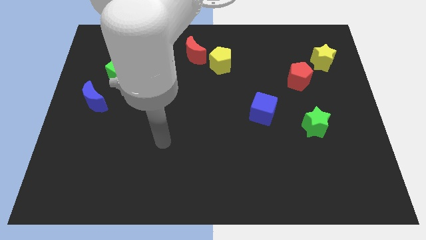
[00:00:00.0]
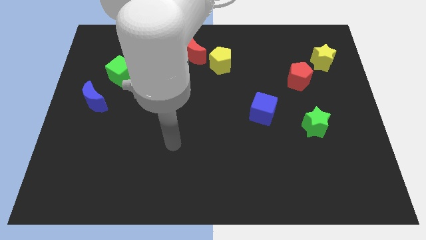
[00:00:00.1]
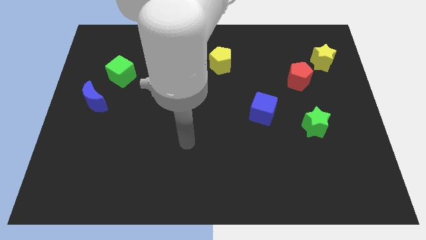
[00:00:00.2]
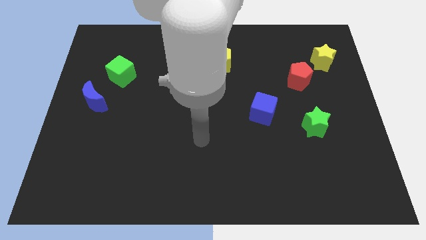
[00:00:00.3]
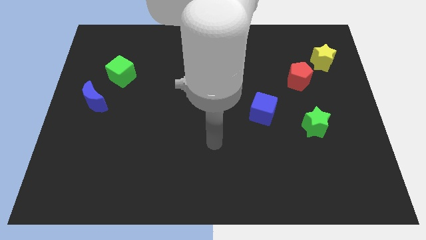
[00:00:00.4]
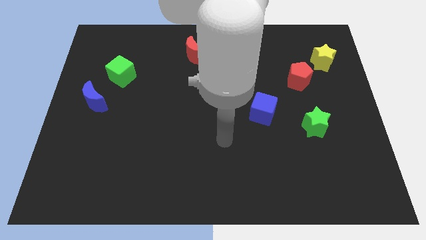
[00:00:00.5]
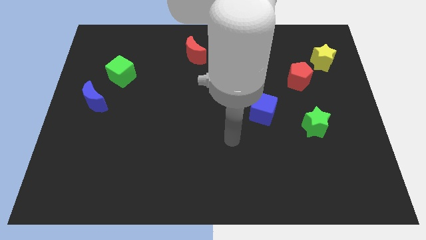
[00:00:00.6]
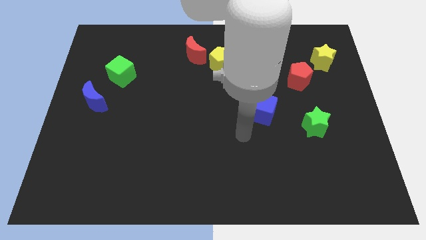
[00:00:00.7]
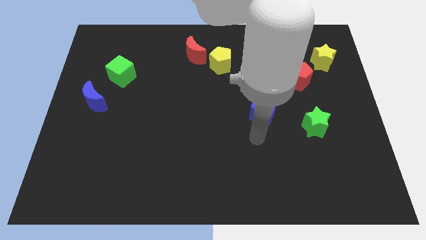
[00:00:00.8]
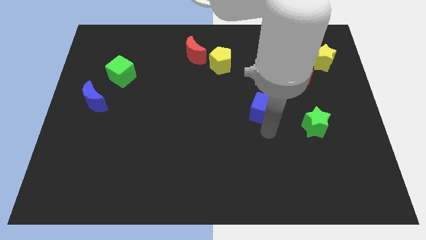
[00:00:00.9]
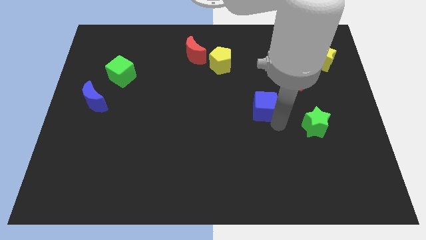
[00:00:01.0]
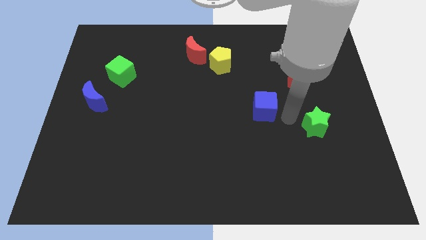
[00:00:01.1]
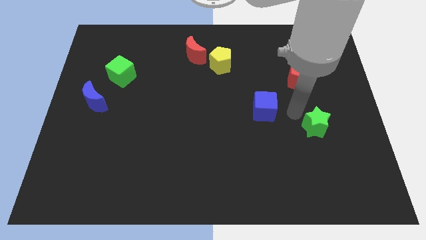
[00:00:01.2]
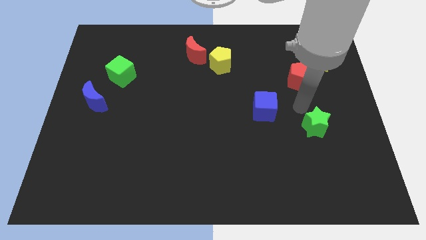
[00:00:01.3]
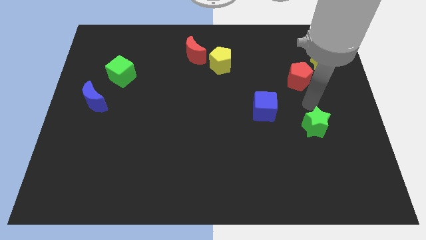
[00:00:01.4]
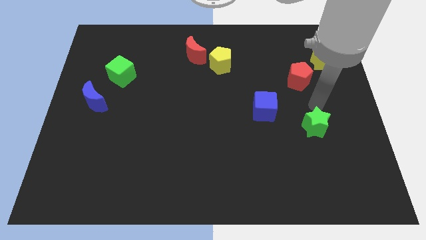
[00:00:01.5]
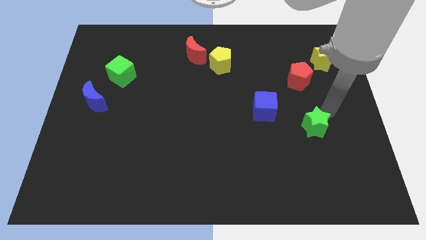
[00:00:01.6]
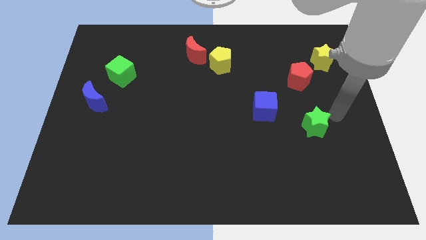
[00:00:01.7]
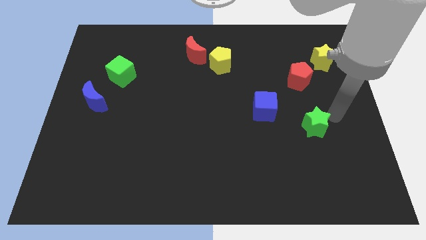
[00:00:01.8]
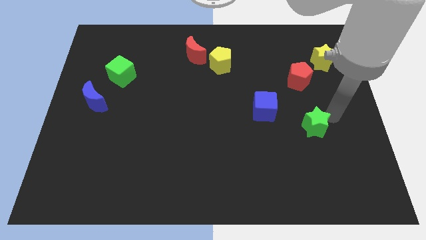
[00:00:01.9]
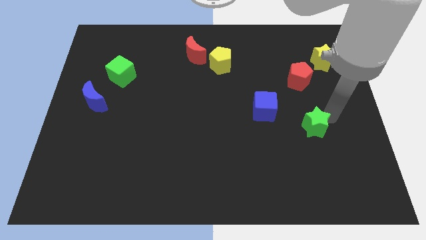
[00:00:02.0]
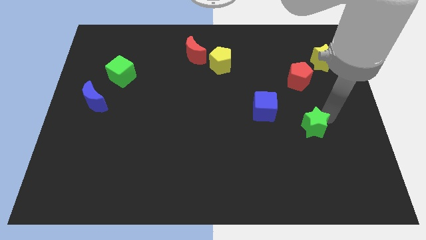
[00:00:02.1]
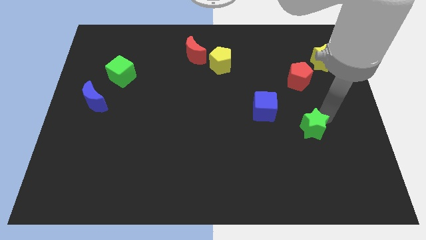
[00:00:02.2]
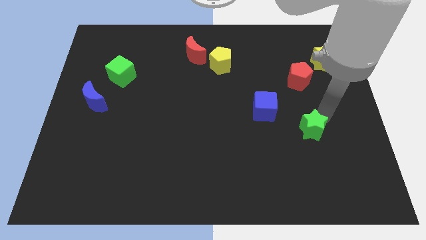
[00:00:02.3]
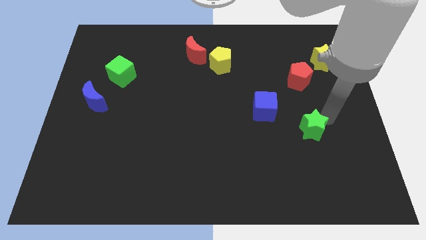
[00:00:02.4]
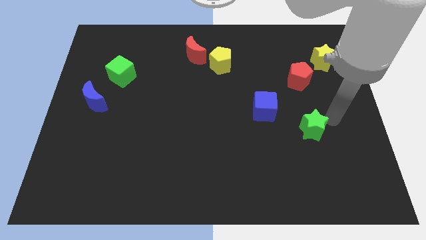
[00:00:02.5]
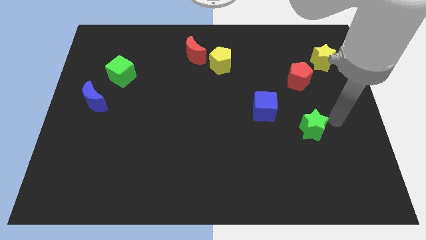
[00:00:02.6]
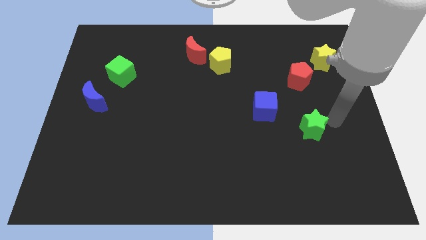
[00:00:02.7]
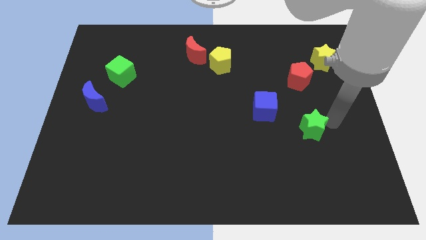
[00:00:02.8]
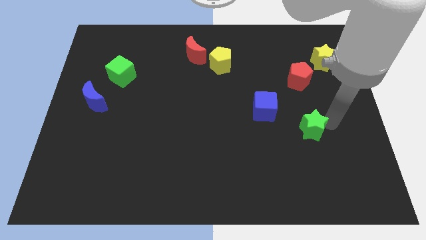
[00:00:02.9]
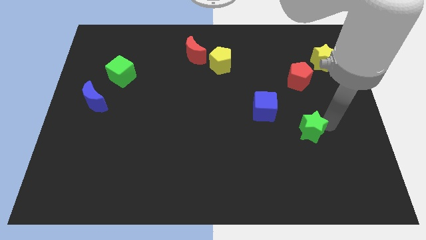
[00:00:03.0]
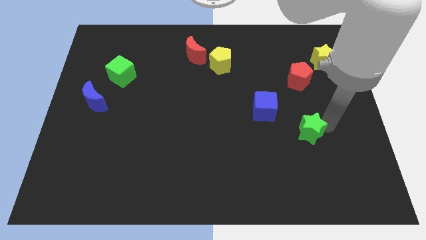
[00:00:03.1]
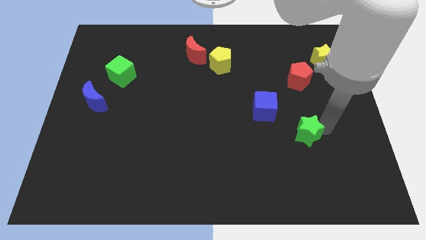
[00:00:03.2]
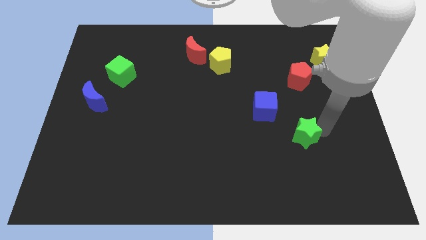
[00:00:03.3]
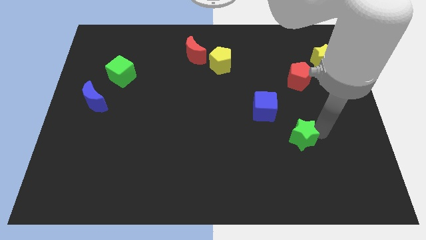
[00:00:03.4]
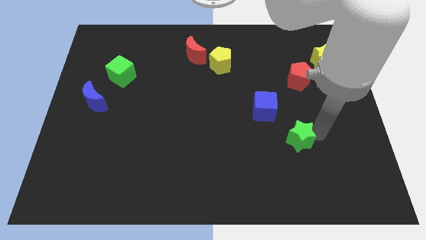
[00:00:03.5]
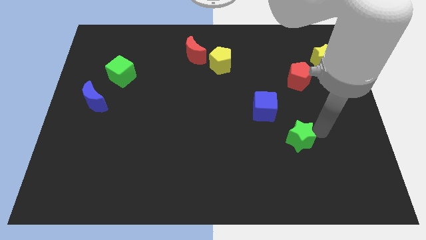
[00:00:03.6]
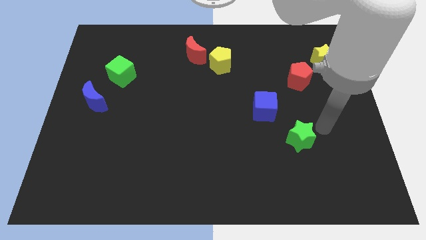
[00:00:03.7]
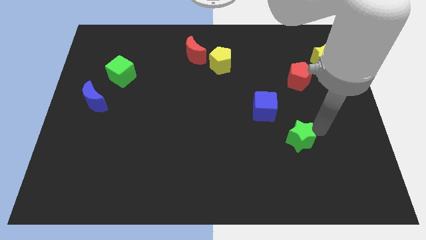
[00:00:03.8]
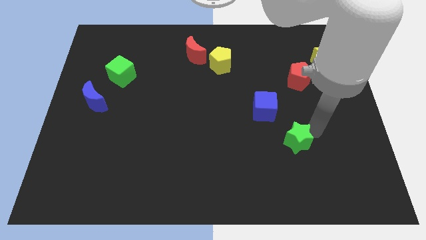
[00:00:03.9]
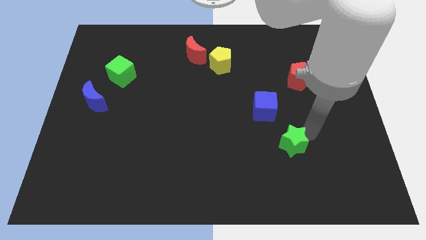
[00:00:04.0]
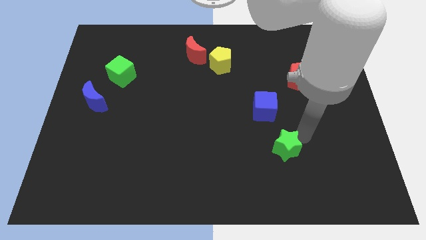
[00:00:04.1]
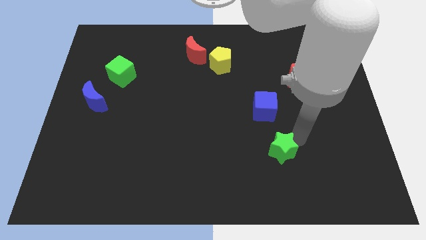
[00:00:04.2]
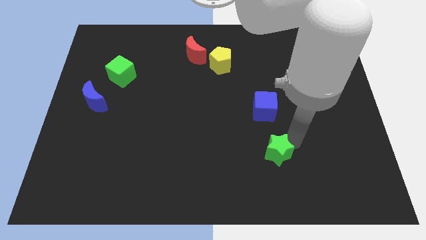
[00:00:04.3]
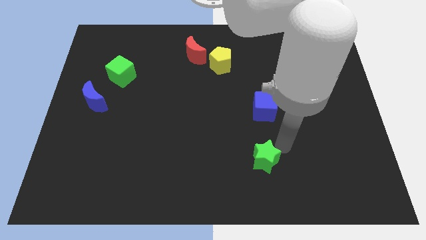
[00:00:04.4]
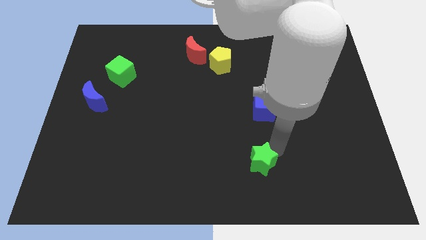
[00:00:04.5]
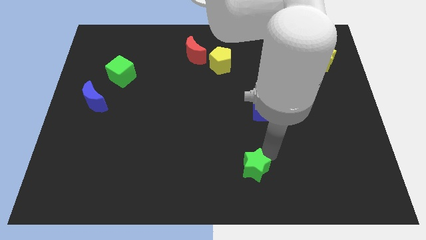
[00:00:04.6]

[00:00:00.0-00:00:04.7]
push the green star to the bottom side

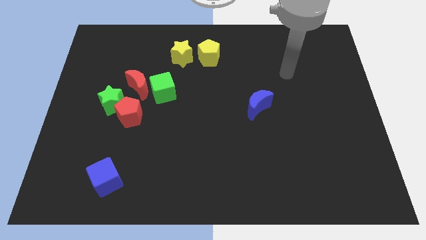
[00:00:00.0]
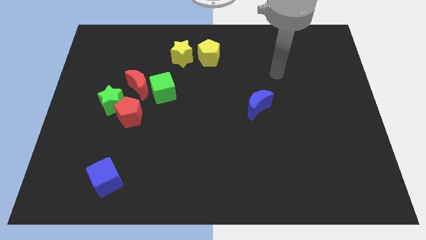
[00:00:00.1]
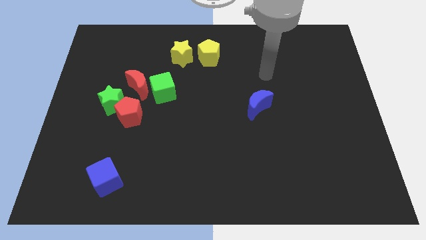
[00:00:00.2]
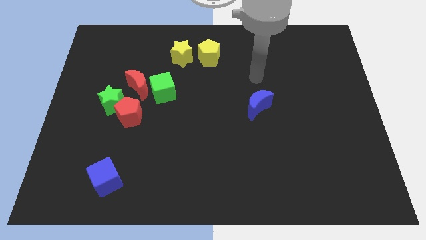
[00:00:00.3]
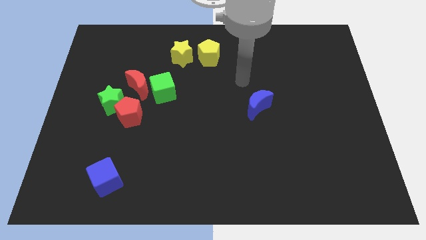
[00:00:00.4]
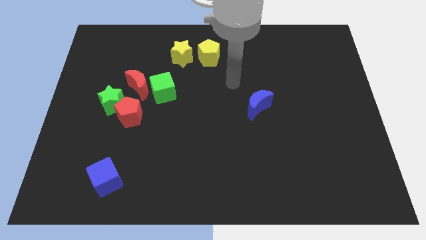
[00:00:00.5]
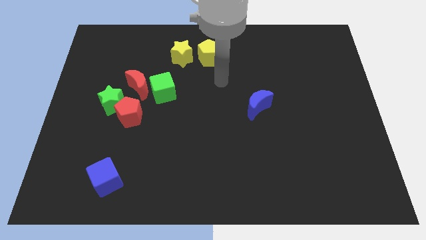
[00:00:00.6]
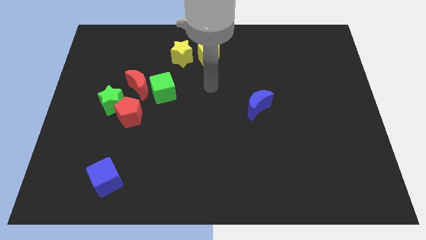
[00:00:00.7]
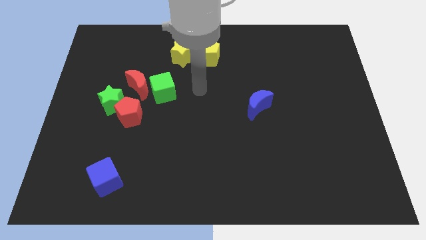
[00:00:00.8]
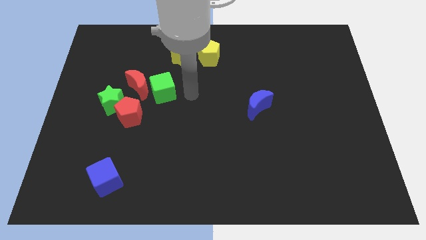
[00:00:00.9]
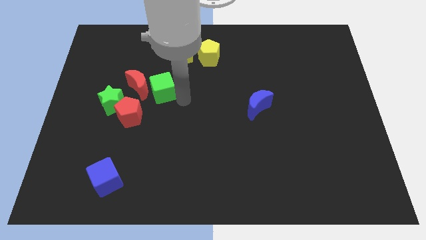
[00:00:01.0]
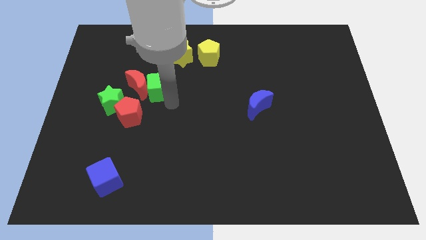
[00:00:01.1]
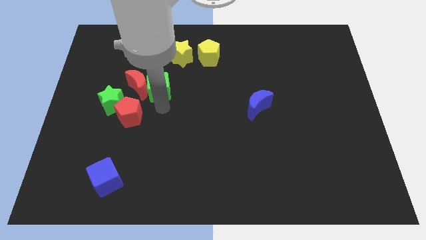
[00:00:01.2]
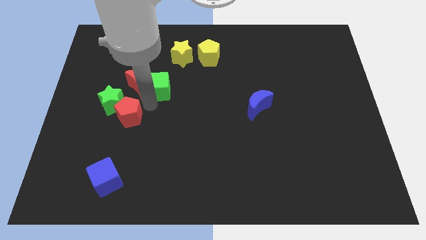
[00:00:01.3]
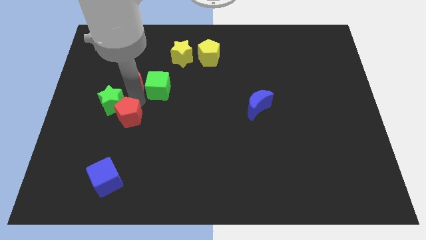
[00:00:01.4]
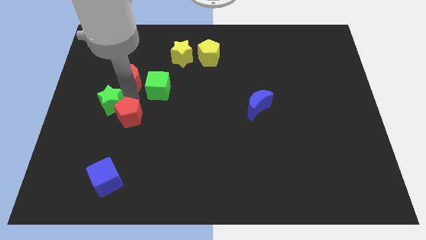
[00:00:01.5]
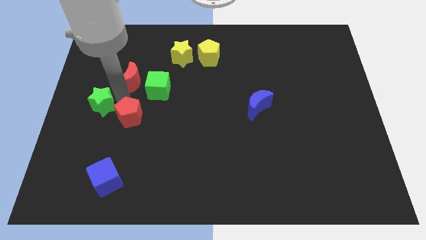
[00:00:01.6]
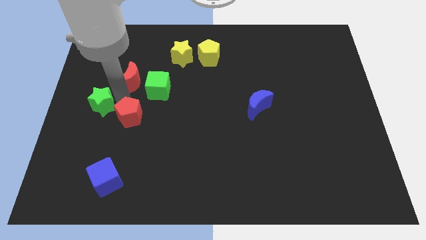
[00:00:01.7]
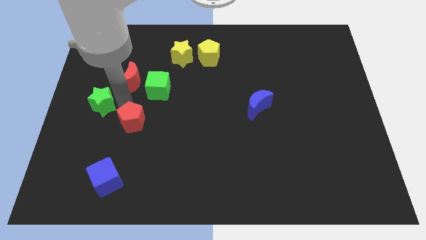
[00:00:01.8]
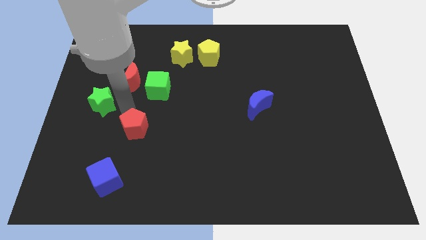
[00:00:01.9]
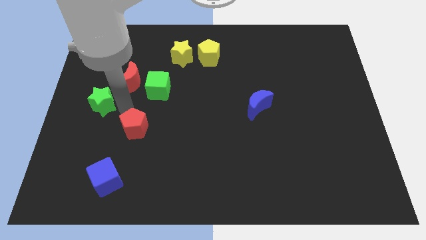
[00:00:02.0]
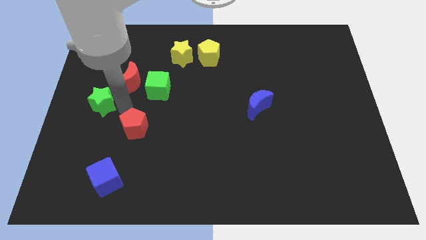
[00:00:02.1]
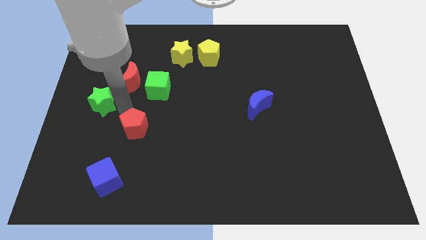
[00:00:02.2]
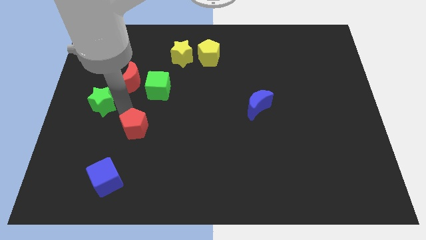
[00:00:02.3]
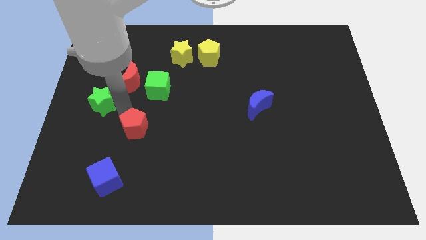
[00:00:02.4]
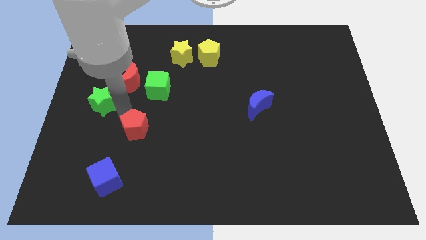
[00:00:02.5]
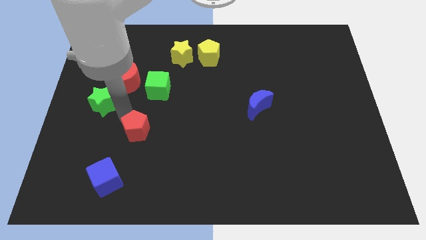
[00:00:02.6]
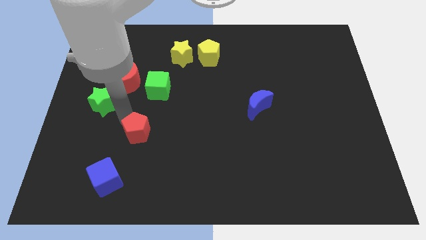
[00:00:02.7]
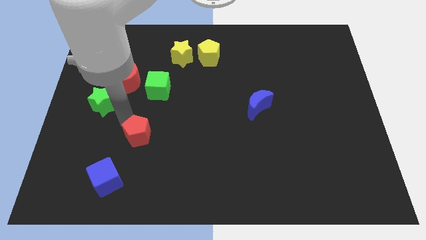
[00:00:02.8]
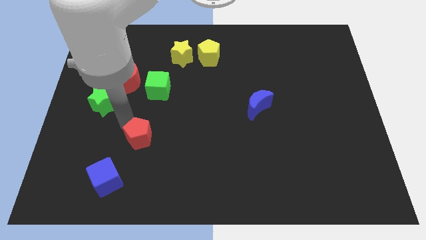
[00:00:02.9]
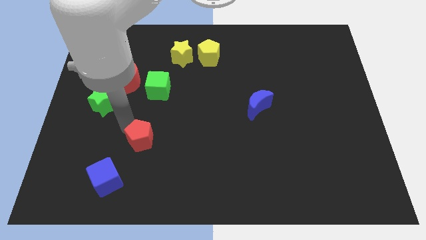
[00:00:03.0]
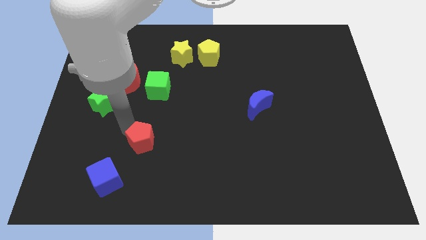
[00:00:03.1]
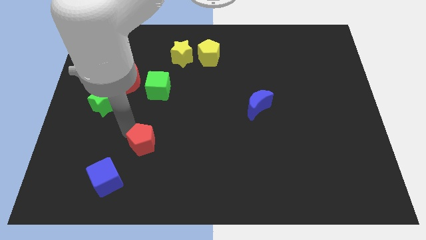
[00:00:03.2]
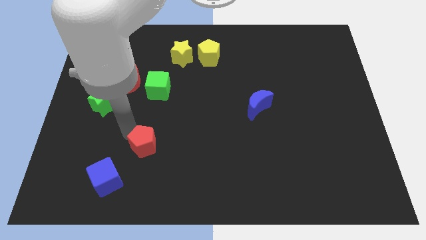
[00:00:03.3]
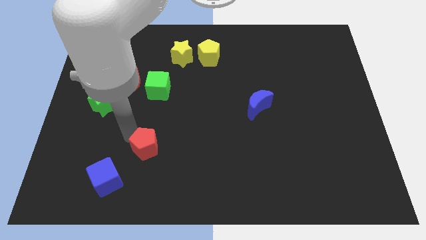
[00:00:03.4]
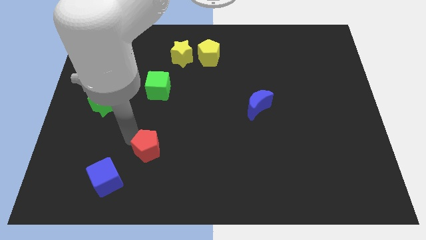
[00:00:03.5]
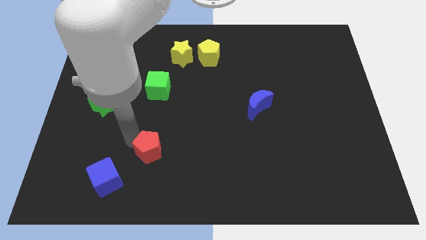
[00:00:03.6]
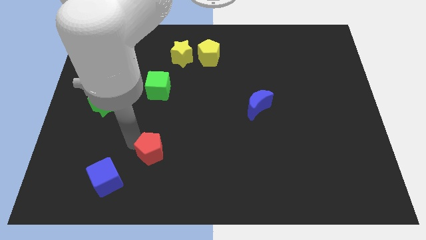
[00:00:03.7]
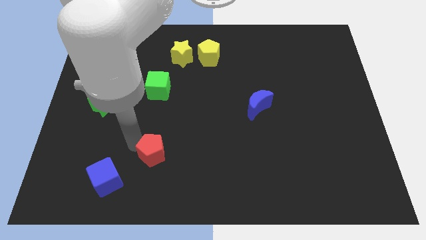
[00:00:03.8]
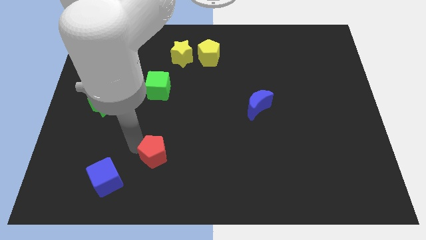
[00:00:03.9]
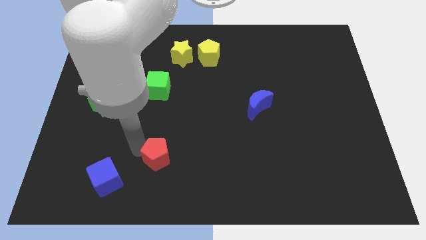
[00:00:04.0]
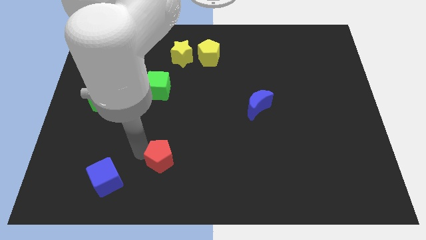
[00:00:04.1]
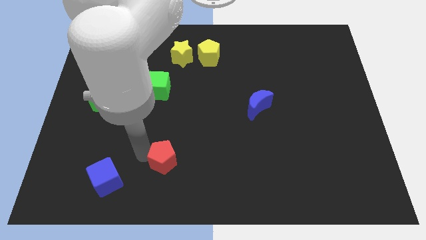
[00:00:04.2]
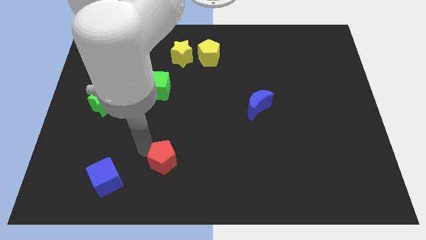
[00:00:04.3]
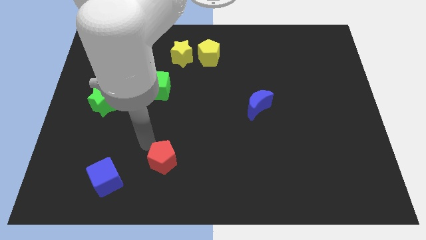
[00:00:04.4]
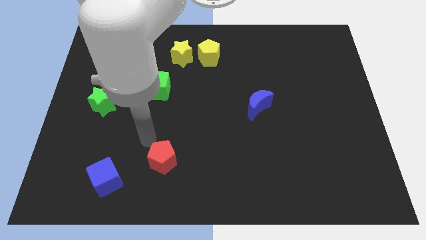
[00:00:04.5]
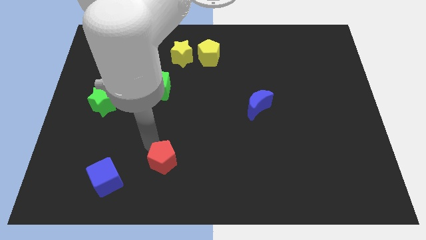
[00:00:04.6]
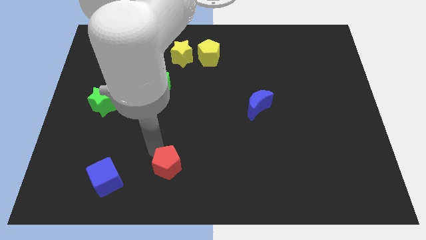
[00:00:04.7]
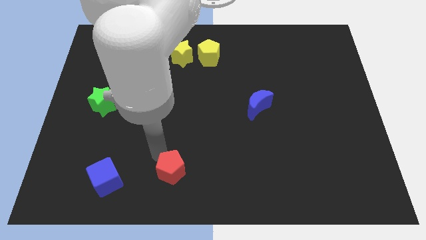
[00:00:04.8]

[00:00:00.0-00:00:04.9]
put the red pentagon to the bottom side
